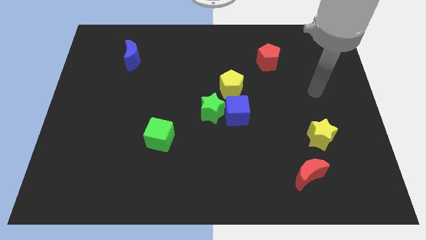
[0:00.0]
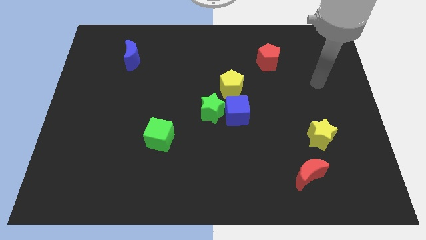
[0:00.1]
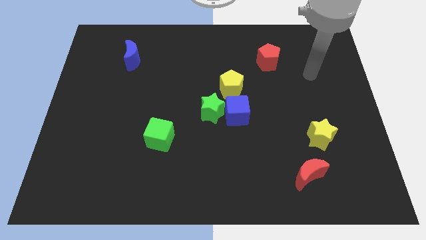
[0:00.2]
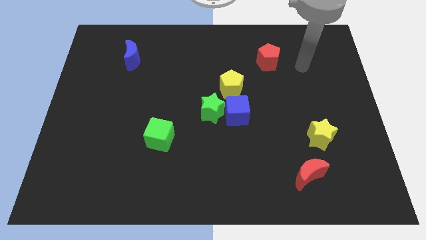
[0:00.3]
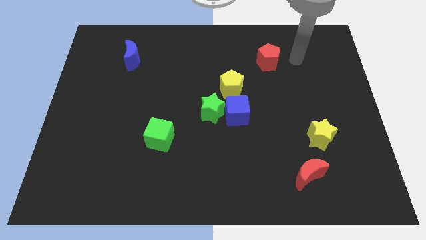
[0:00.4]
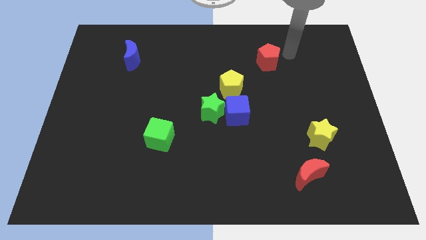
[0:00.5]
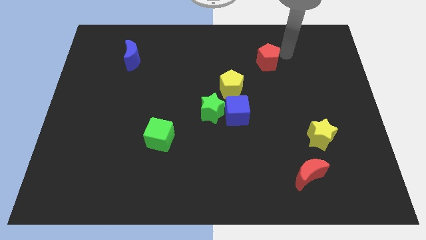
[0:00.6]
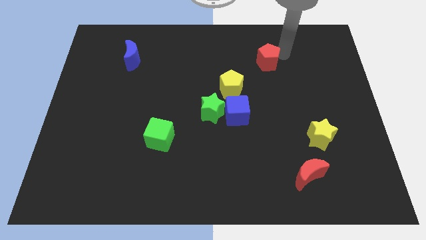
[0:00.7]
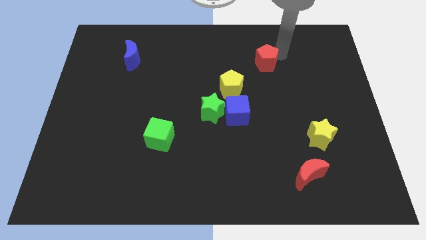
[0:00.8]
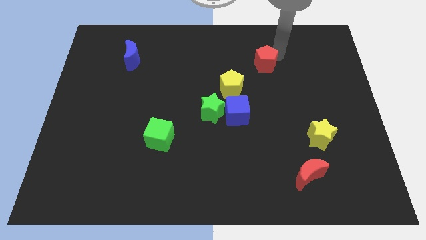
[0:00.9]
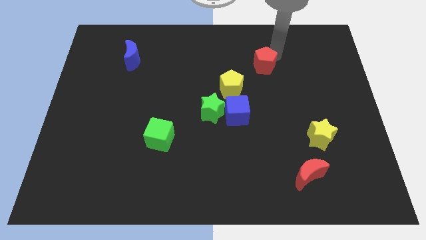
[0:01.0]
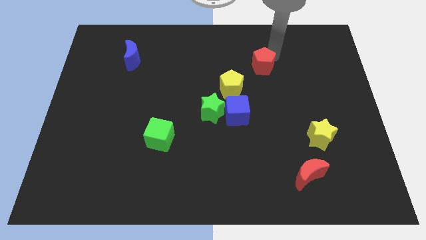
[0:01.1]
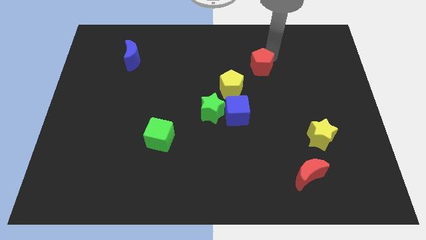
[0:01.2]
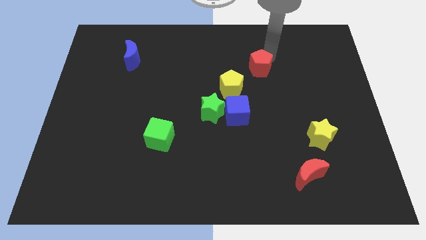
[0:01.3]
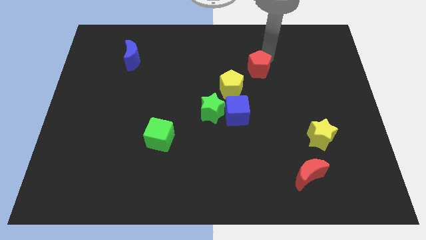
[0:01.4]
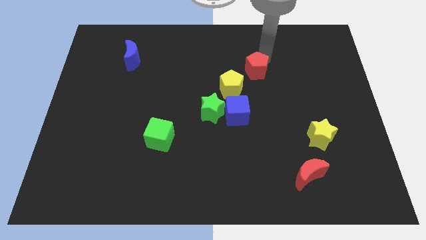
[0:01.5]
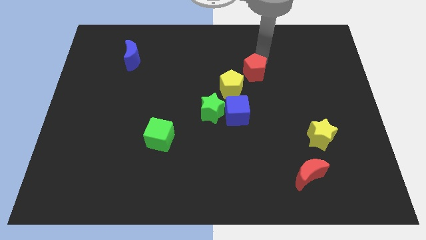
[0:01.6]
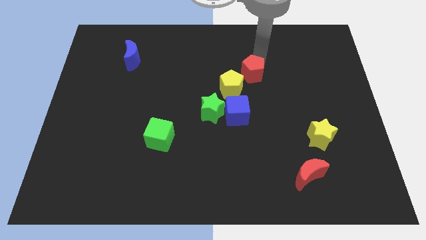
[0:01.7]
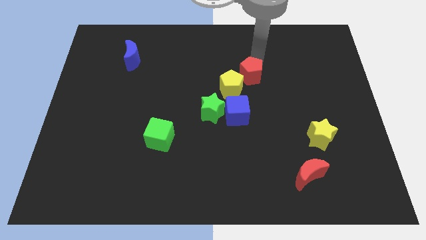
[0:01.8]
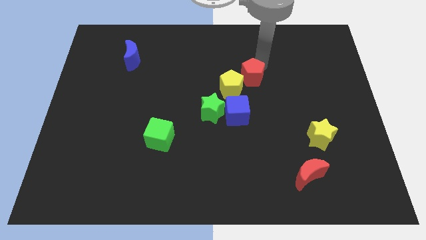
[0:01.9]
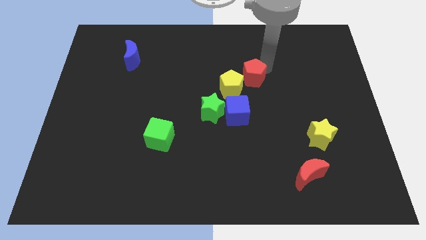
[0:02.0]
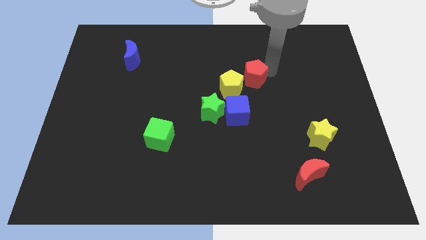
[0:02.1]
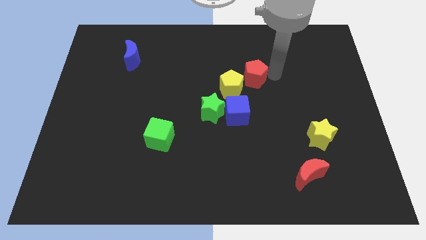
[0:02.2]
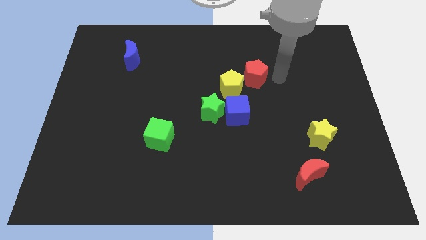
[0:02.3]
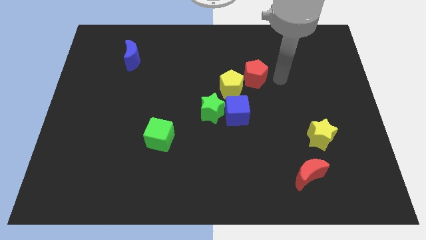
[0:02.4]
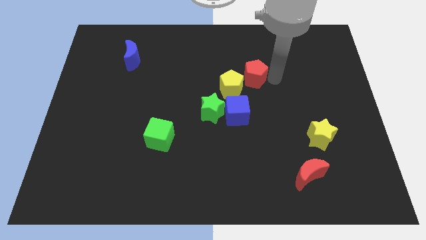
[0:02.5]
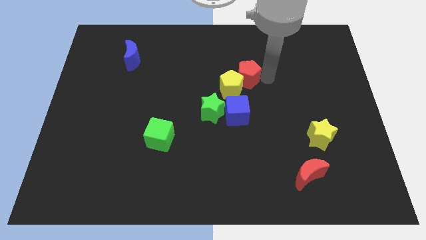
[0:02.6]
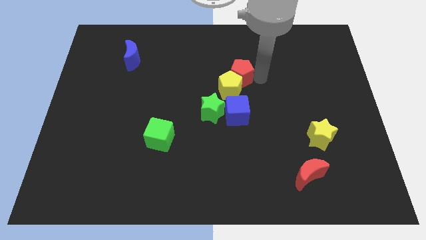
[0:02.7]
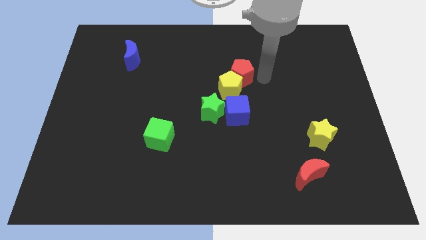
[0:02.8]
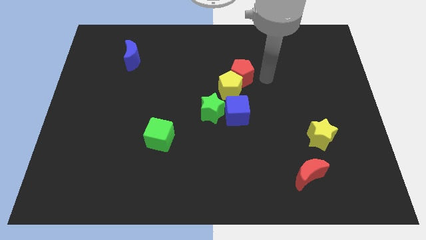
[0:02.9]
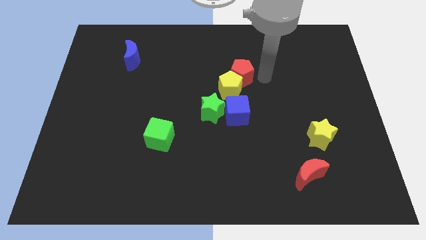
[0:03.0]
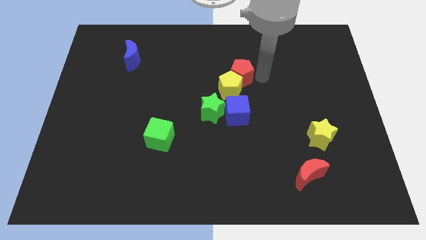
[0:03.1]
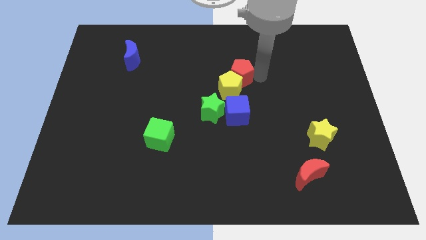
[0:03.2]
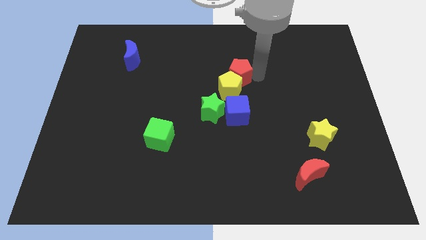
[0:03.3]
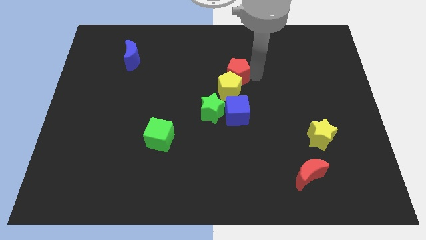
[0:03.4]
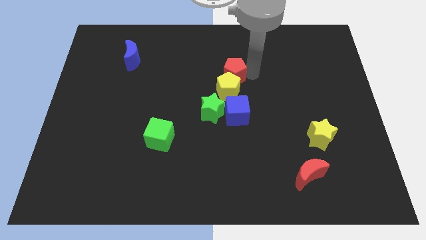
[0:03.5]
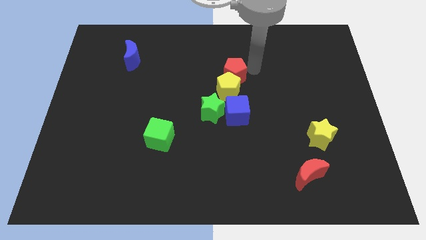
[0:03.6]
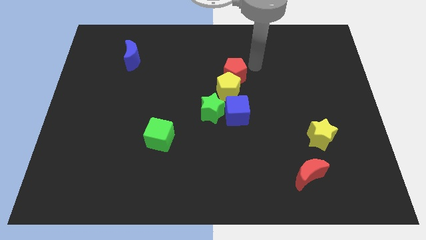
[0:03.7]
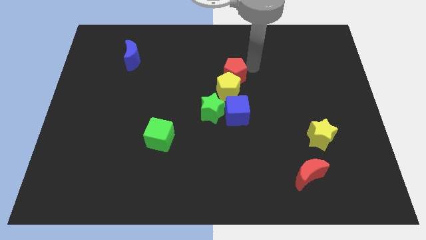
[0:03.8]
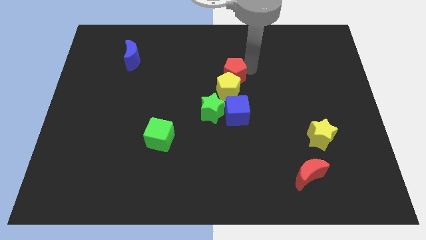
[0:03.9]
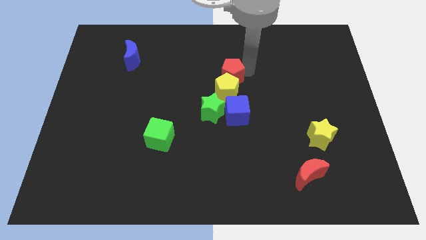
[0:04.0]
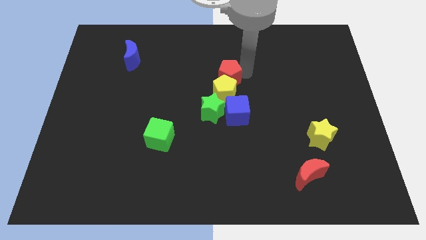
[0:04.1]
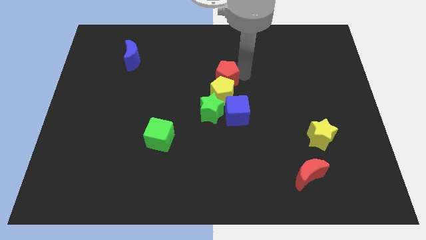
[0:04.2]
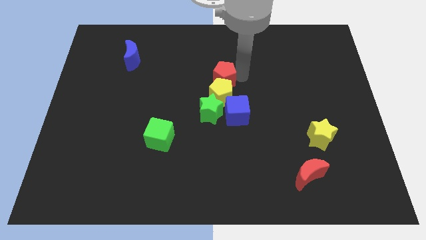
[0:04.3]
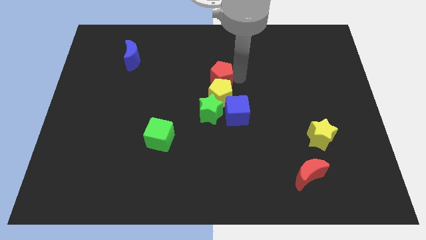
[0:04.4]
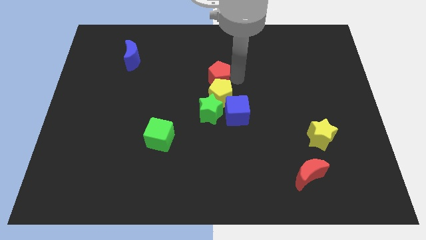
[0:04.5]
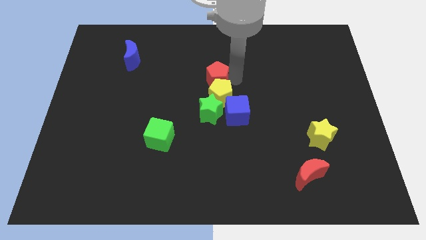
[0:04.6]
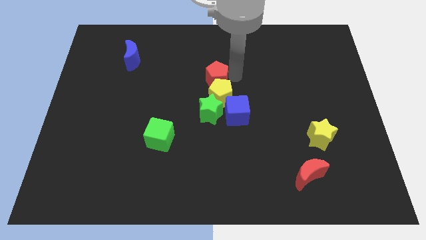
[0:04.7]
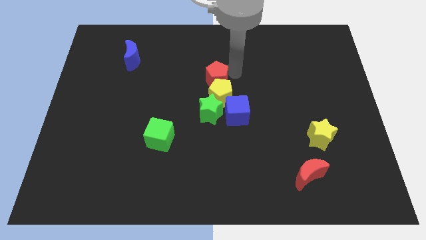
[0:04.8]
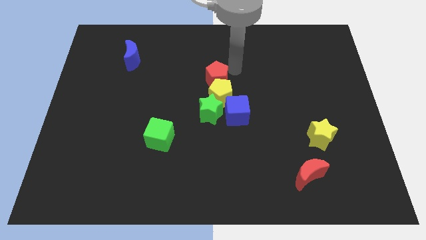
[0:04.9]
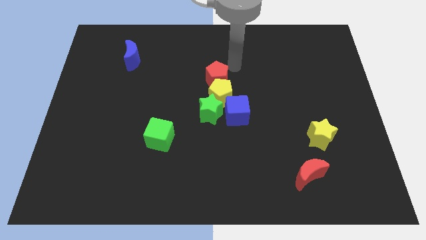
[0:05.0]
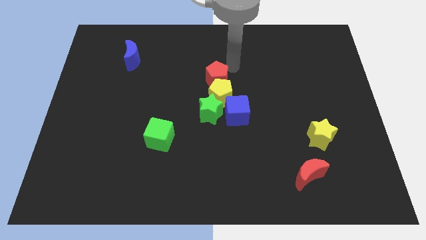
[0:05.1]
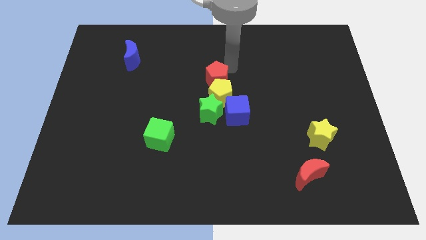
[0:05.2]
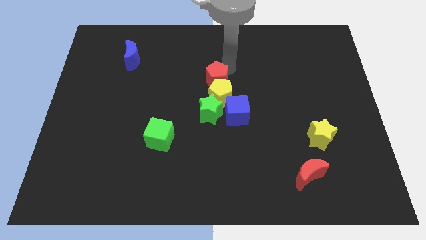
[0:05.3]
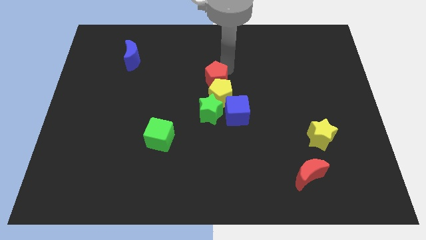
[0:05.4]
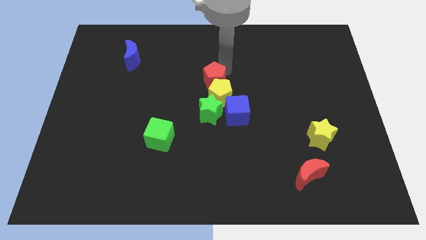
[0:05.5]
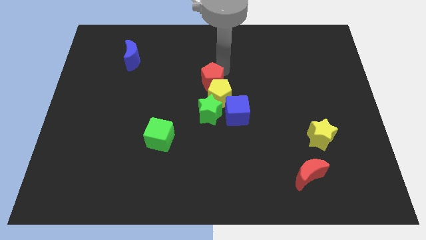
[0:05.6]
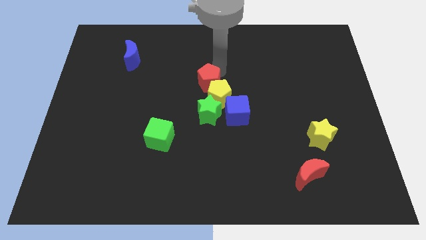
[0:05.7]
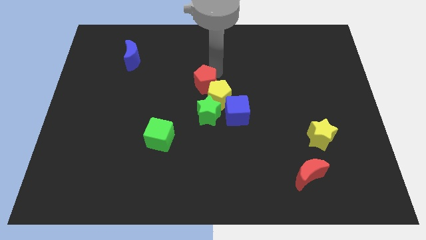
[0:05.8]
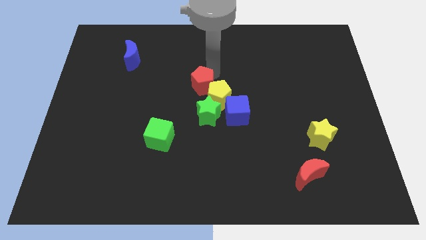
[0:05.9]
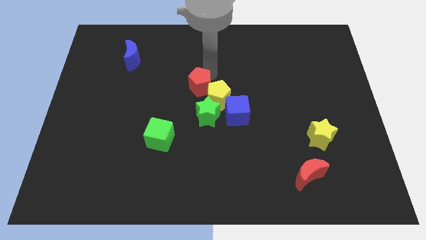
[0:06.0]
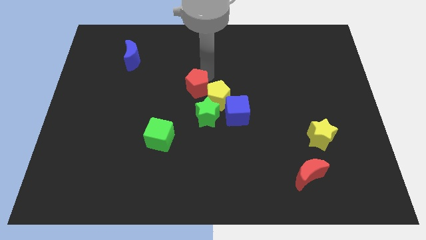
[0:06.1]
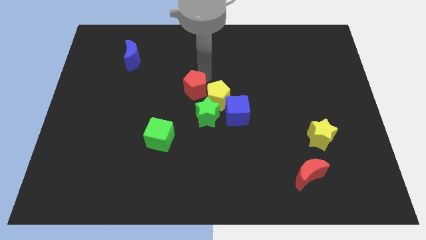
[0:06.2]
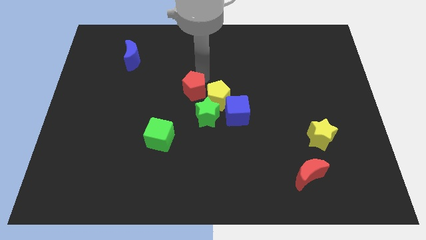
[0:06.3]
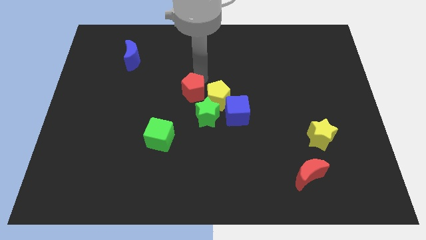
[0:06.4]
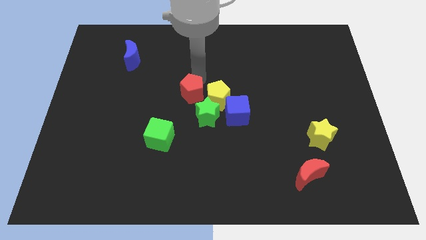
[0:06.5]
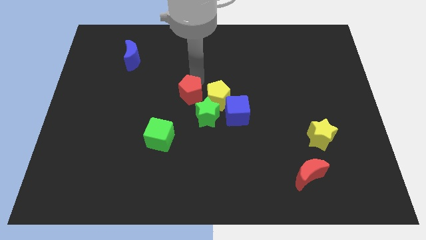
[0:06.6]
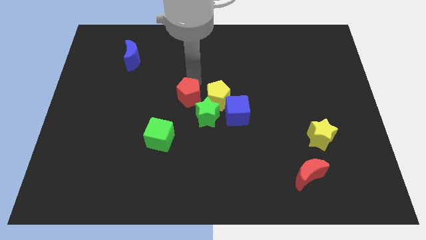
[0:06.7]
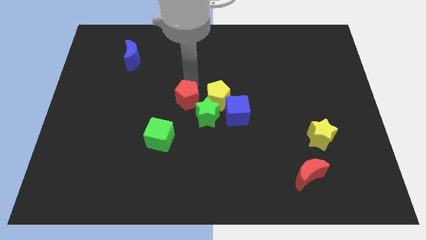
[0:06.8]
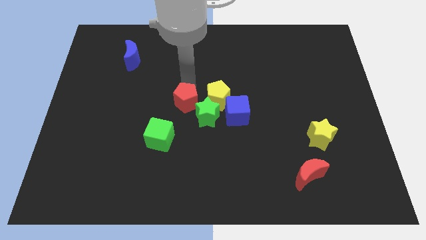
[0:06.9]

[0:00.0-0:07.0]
move the red pentagon left of the green star

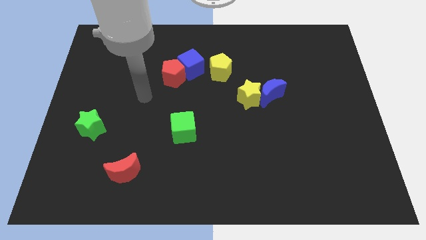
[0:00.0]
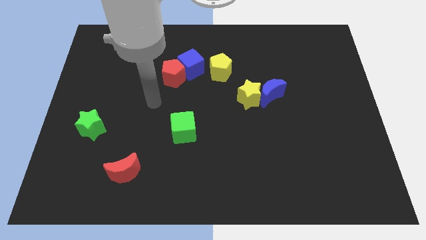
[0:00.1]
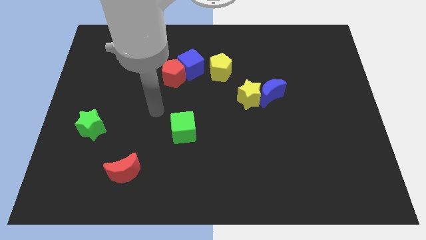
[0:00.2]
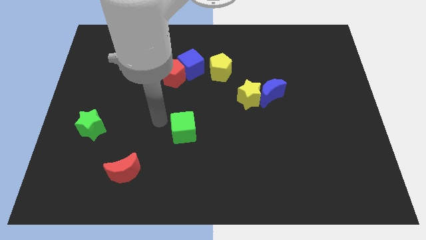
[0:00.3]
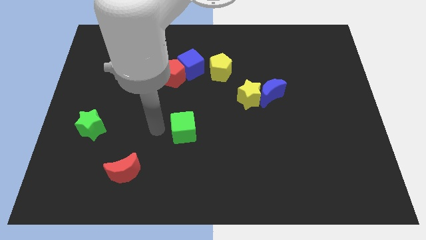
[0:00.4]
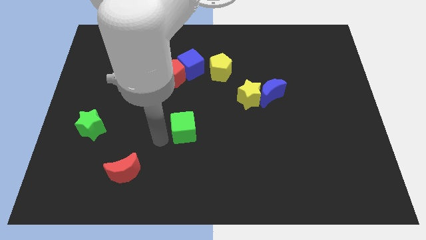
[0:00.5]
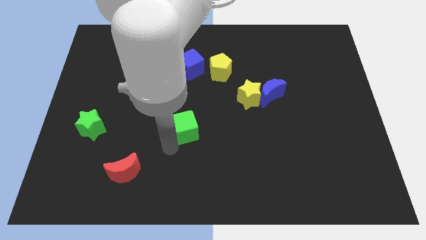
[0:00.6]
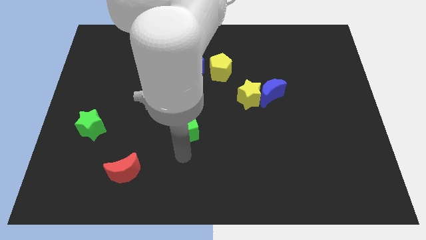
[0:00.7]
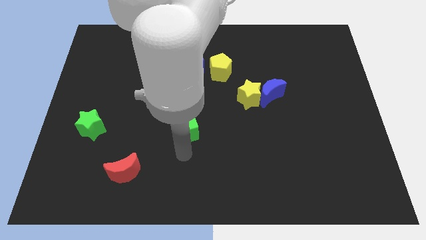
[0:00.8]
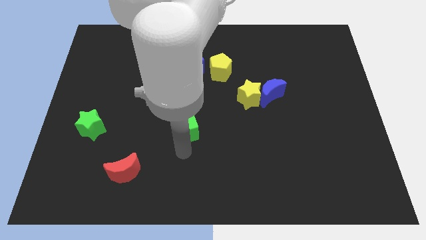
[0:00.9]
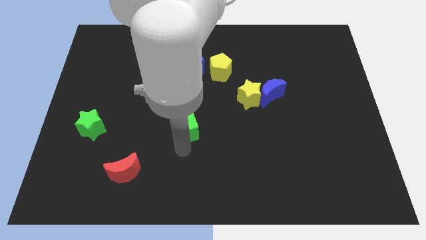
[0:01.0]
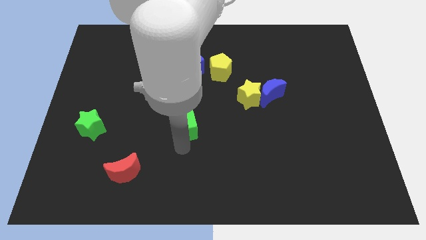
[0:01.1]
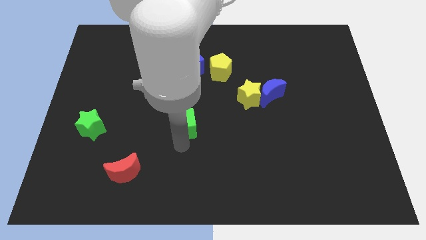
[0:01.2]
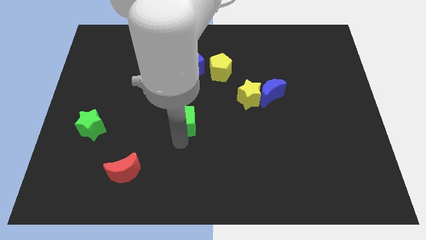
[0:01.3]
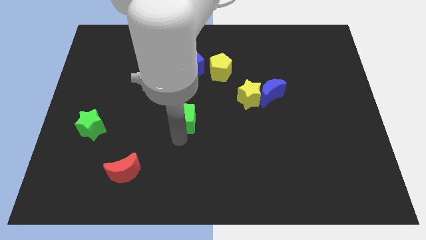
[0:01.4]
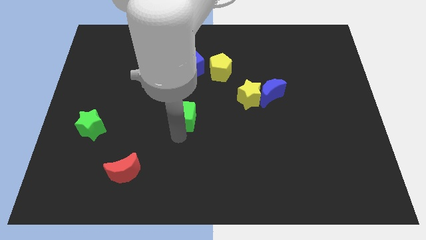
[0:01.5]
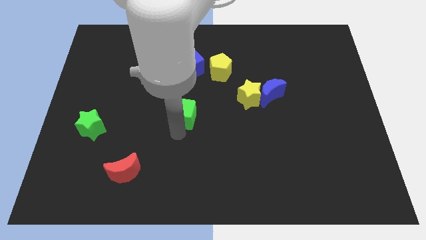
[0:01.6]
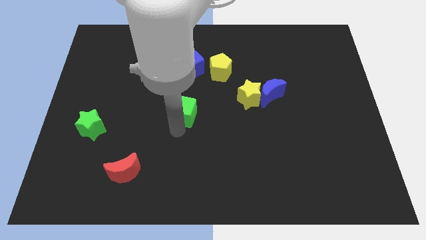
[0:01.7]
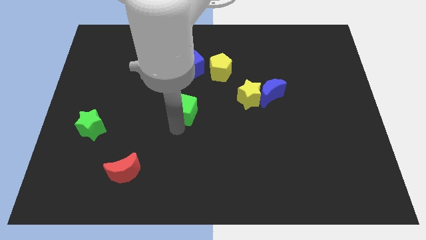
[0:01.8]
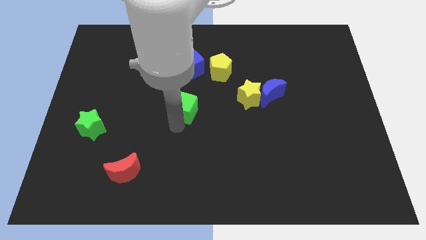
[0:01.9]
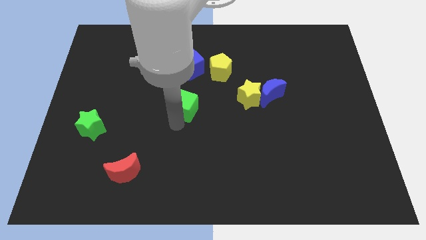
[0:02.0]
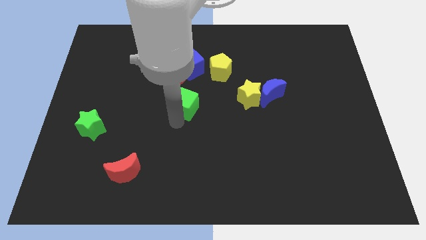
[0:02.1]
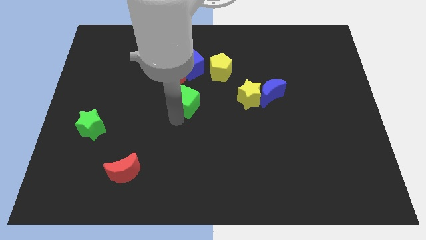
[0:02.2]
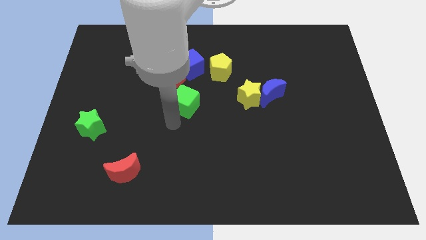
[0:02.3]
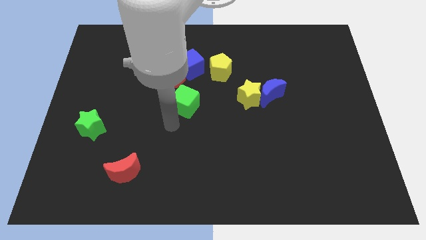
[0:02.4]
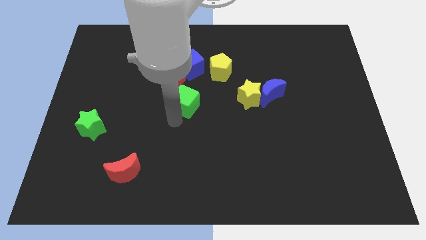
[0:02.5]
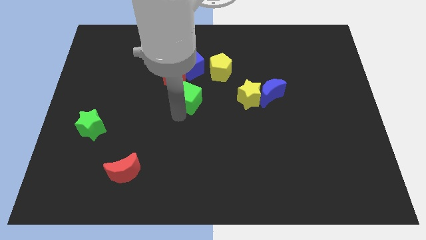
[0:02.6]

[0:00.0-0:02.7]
put the green cube to the bottom left of the yellow pentagon
